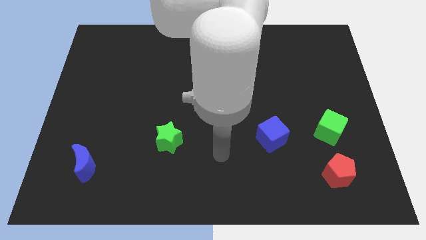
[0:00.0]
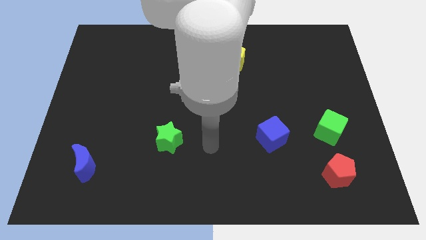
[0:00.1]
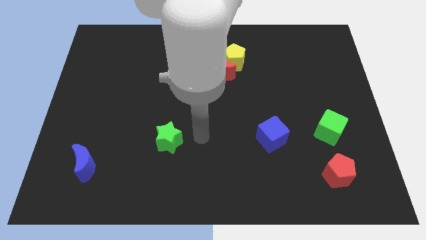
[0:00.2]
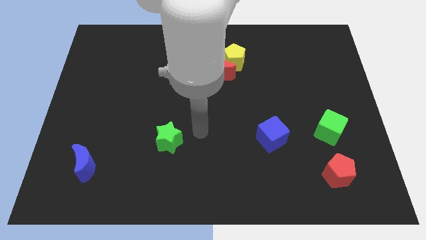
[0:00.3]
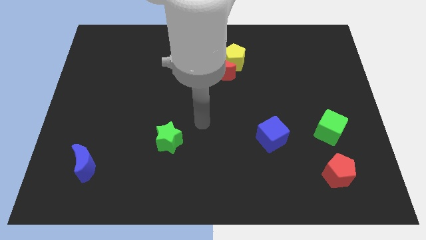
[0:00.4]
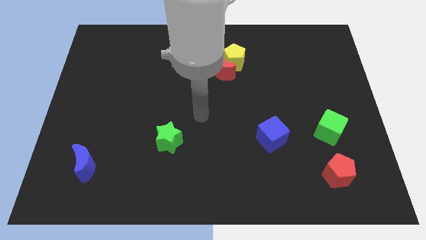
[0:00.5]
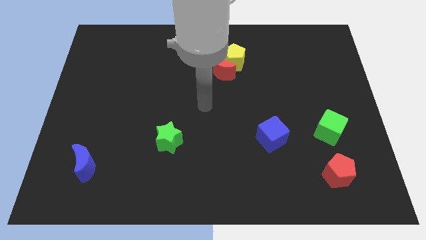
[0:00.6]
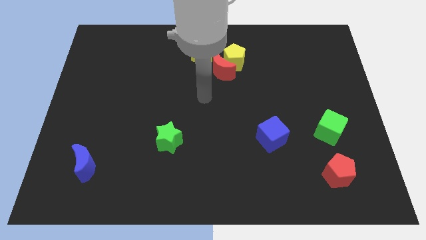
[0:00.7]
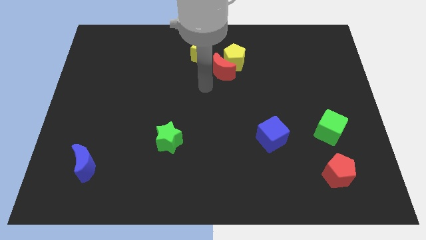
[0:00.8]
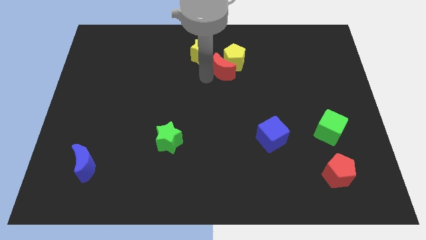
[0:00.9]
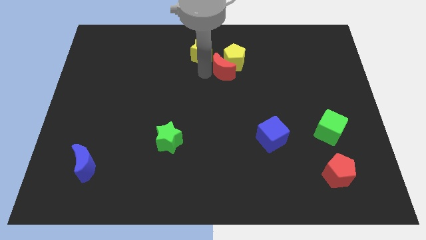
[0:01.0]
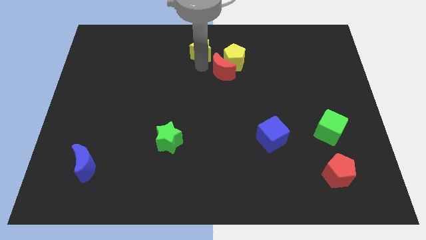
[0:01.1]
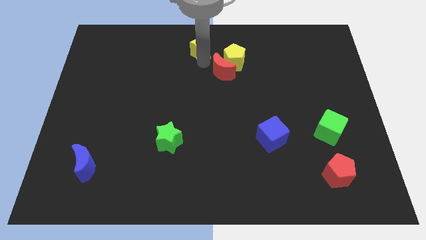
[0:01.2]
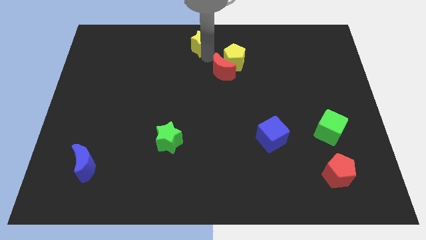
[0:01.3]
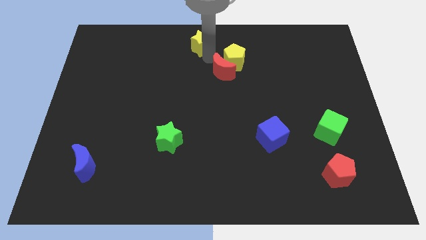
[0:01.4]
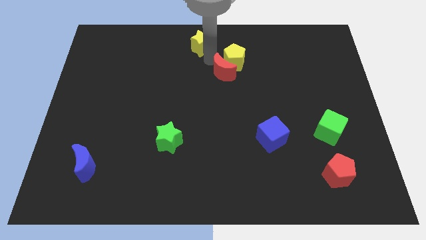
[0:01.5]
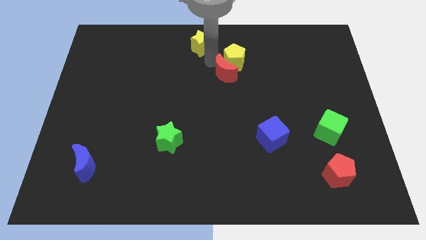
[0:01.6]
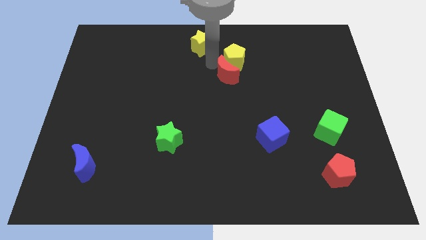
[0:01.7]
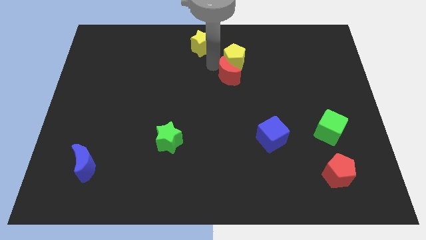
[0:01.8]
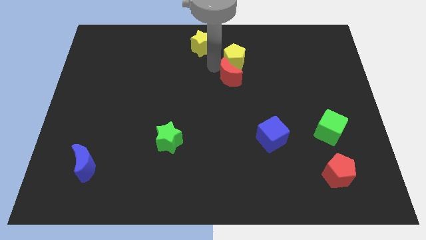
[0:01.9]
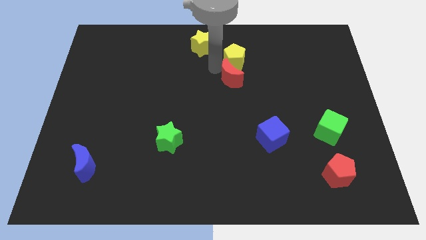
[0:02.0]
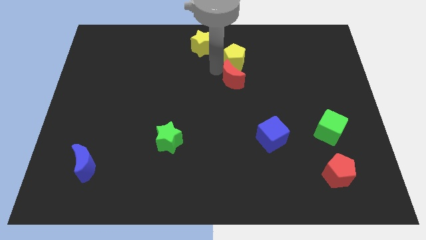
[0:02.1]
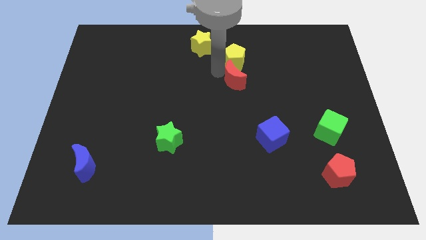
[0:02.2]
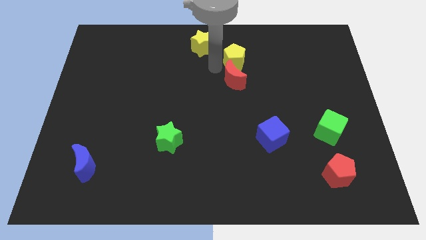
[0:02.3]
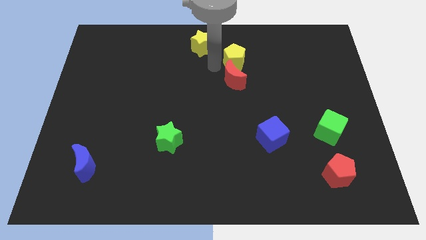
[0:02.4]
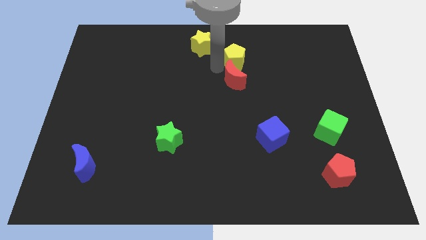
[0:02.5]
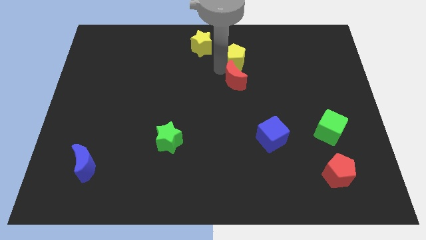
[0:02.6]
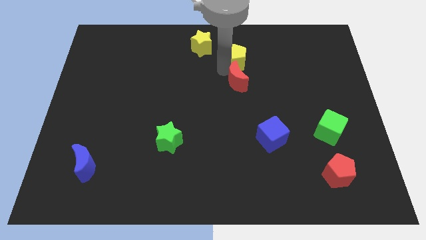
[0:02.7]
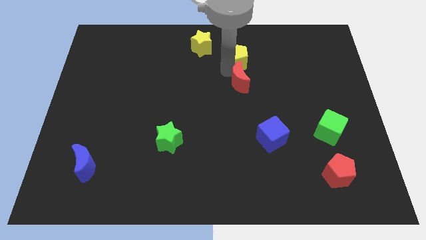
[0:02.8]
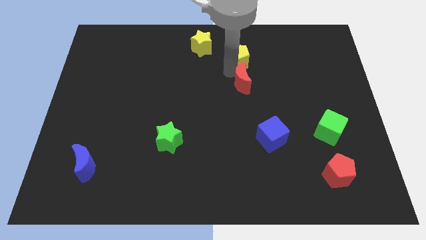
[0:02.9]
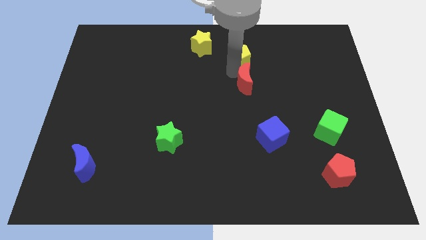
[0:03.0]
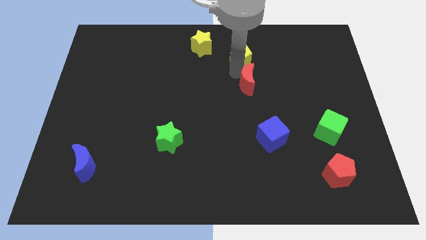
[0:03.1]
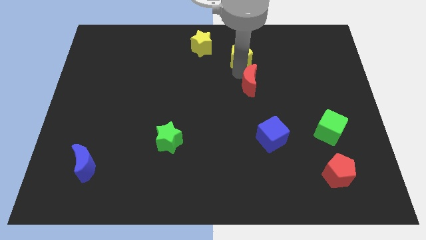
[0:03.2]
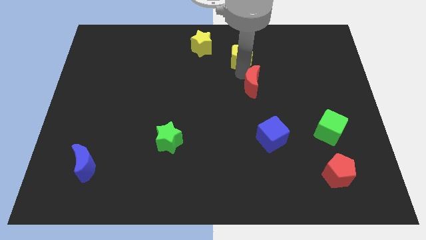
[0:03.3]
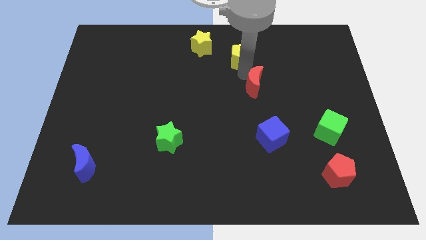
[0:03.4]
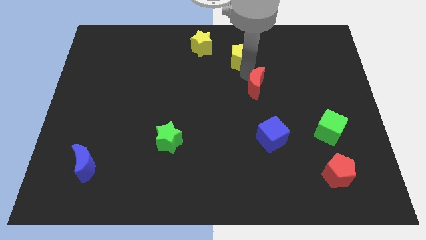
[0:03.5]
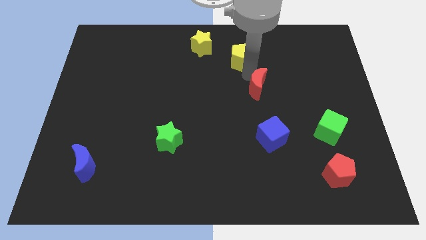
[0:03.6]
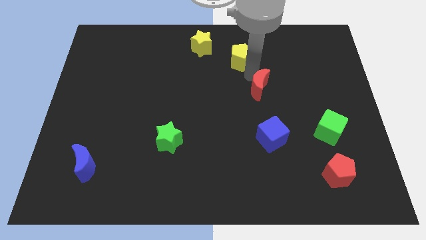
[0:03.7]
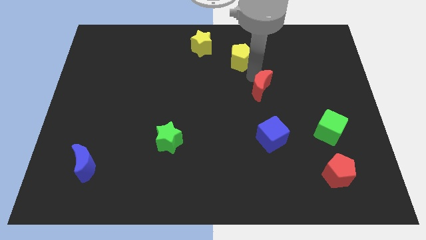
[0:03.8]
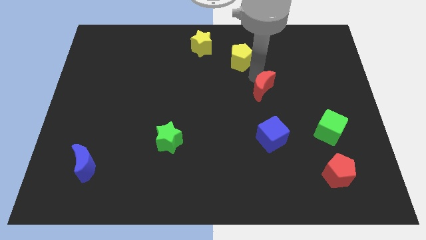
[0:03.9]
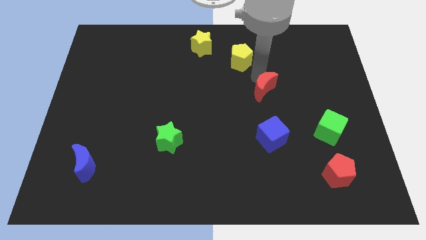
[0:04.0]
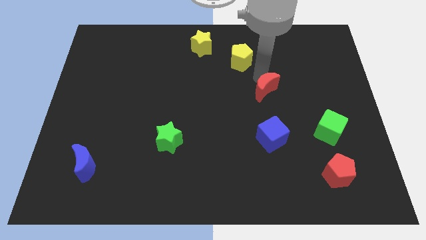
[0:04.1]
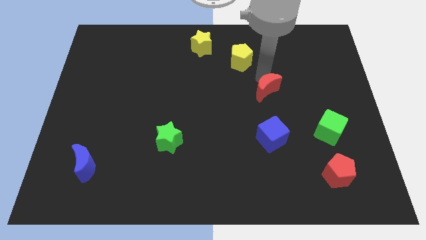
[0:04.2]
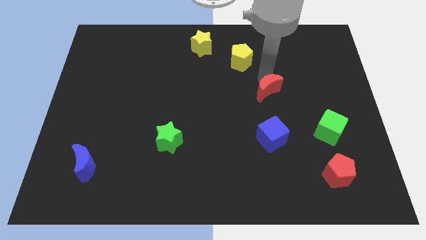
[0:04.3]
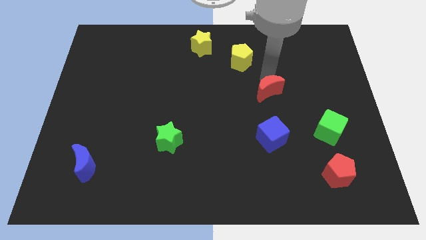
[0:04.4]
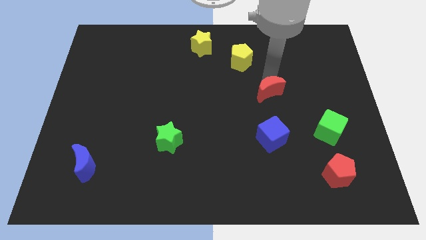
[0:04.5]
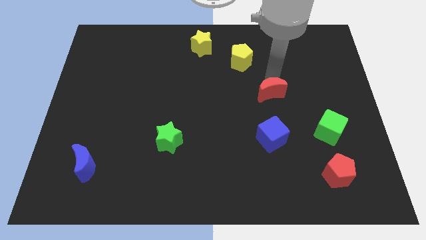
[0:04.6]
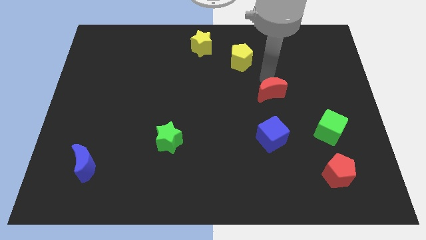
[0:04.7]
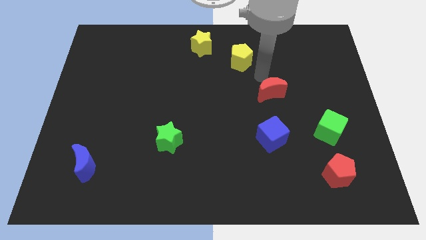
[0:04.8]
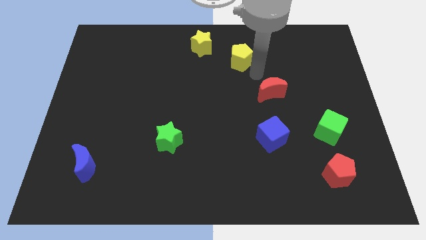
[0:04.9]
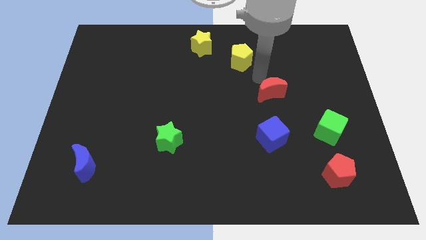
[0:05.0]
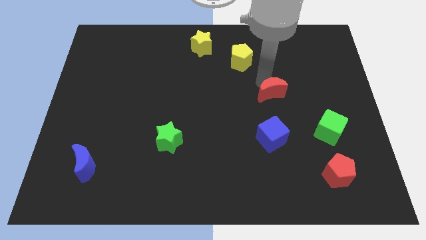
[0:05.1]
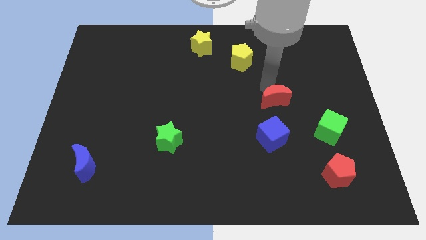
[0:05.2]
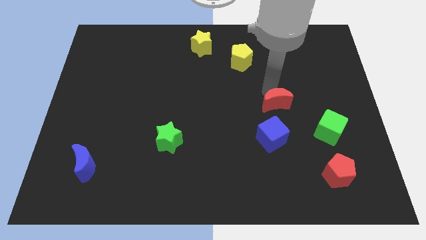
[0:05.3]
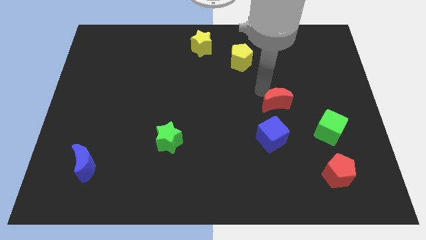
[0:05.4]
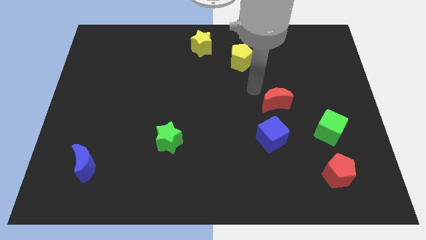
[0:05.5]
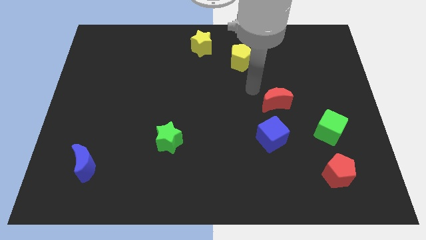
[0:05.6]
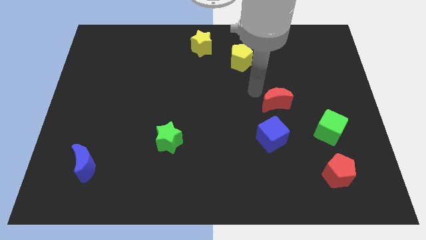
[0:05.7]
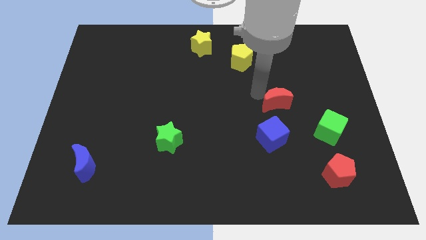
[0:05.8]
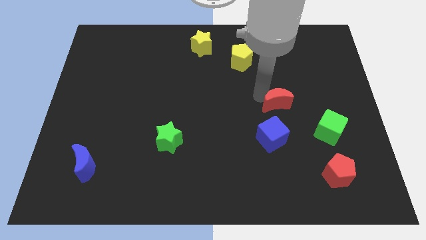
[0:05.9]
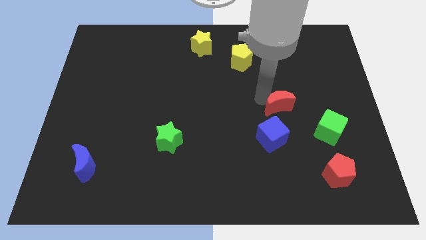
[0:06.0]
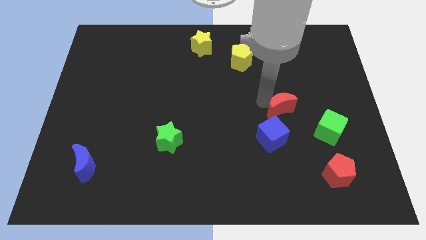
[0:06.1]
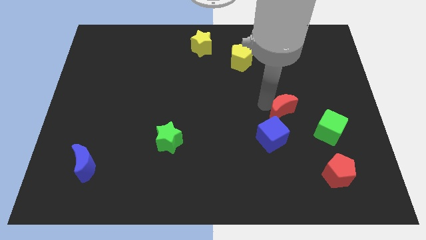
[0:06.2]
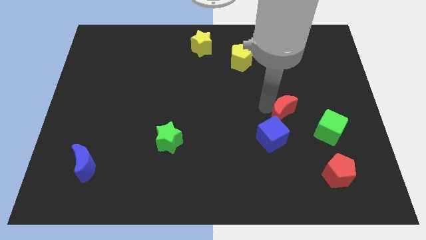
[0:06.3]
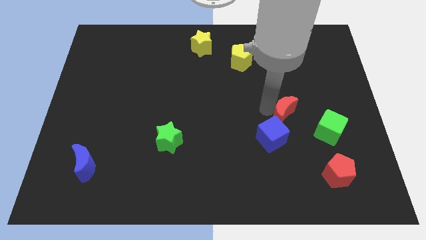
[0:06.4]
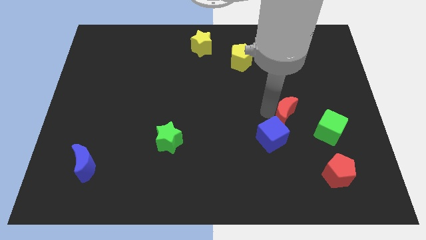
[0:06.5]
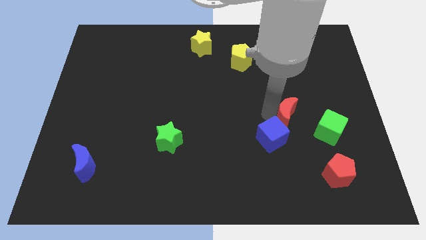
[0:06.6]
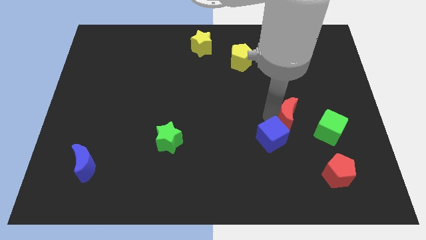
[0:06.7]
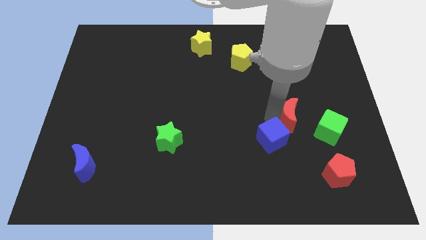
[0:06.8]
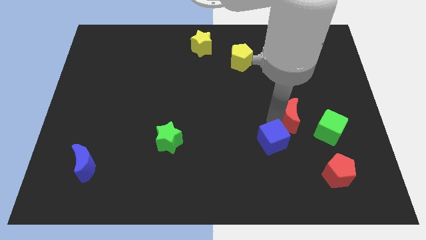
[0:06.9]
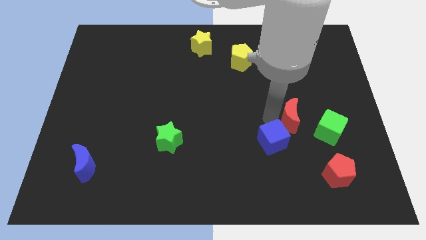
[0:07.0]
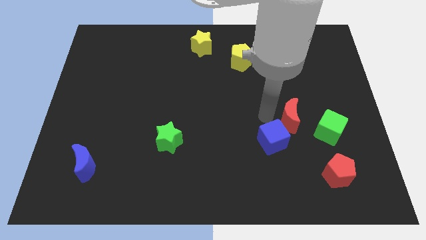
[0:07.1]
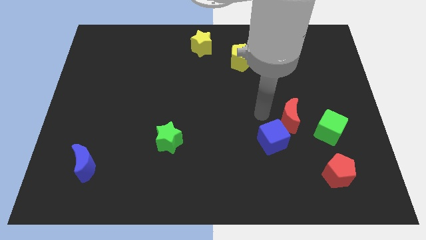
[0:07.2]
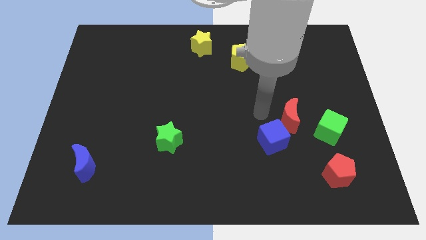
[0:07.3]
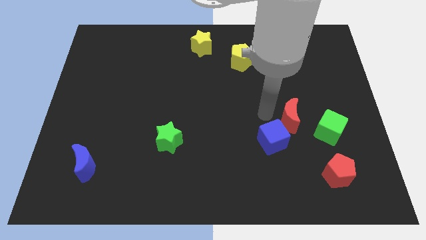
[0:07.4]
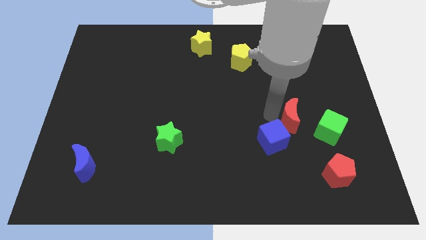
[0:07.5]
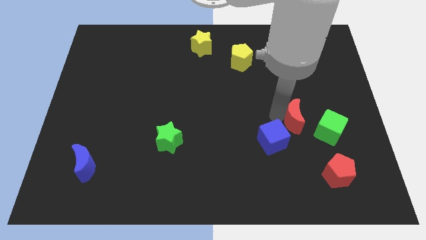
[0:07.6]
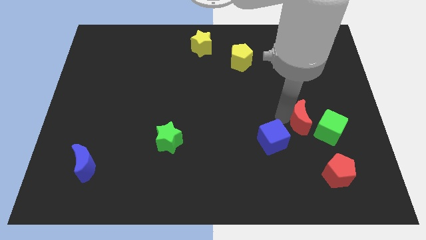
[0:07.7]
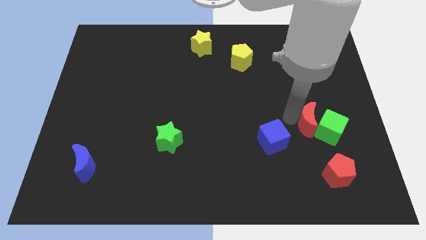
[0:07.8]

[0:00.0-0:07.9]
move the red moon next to the green cube
